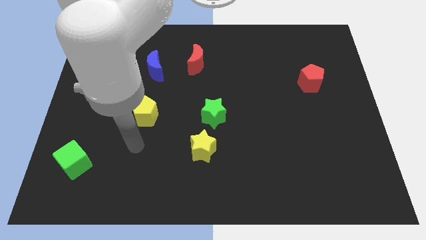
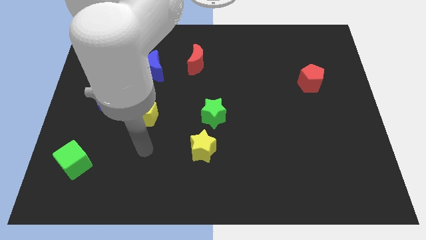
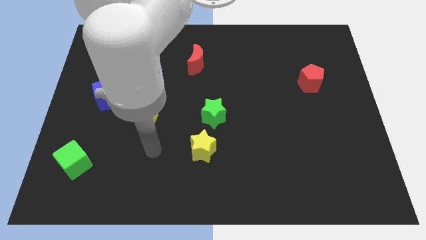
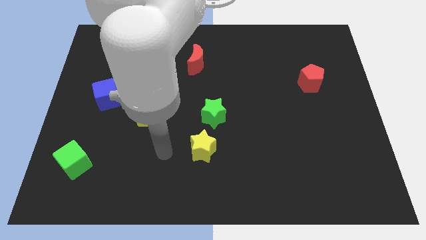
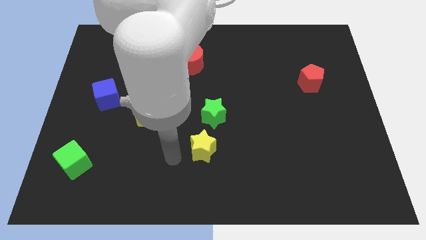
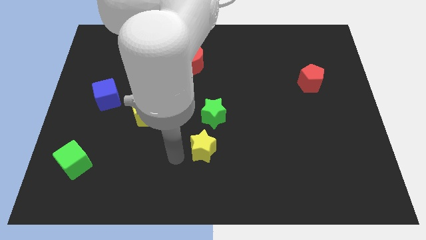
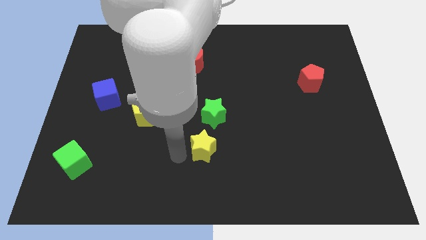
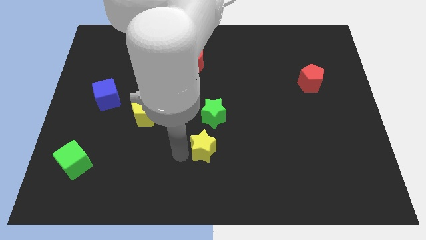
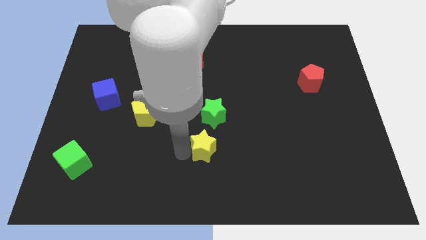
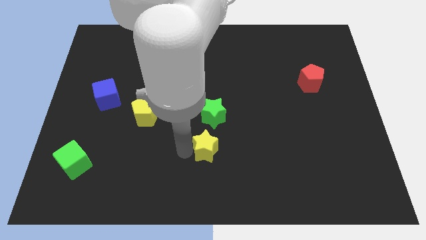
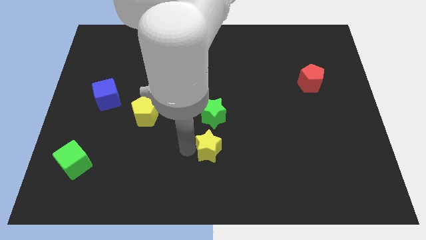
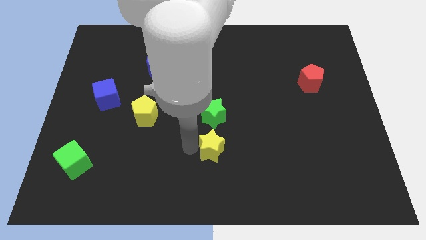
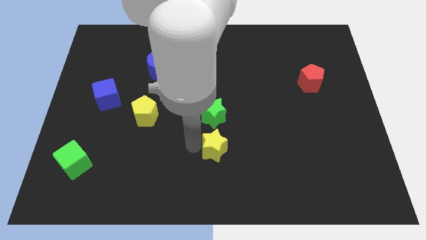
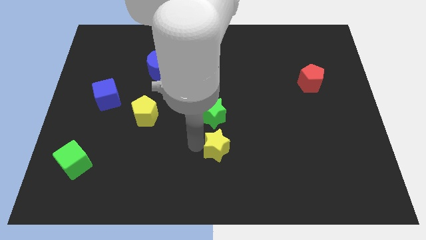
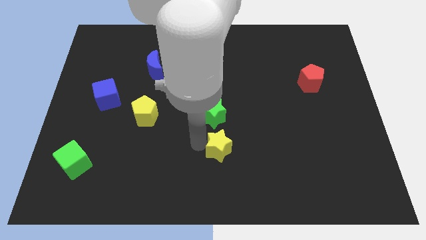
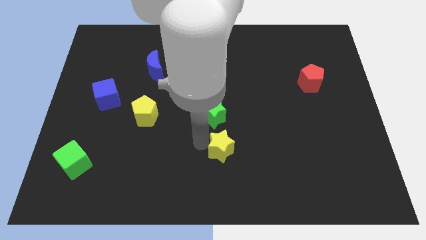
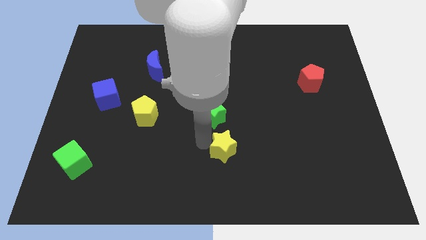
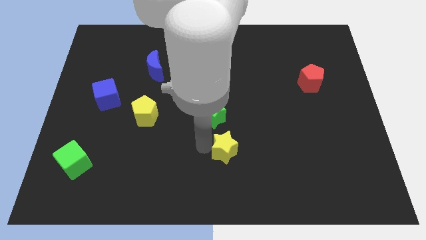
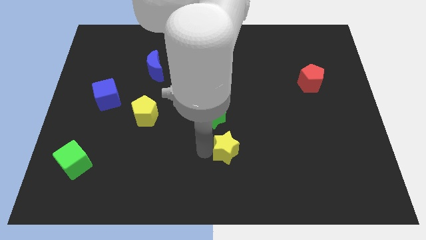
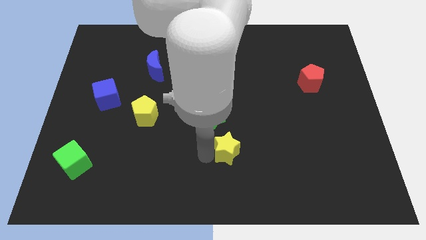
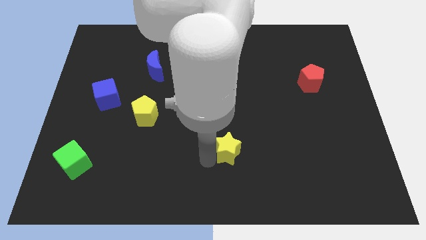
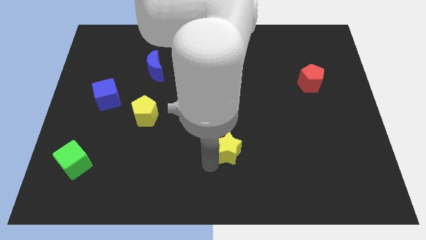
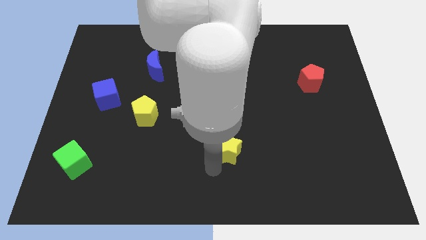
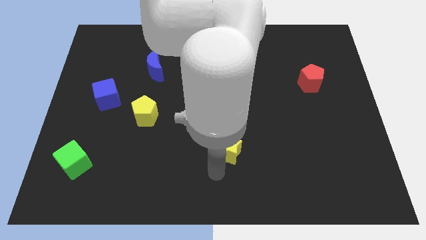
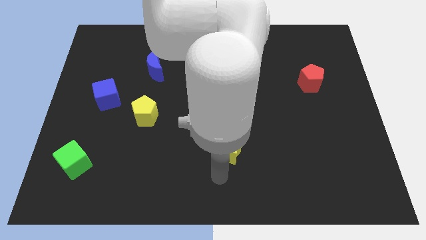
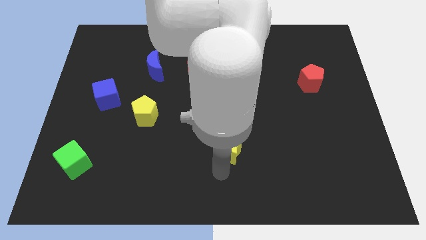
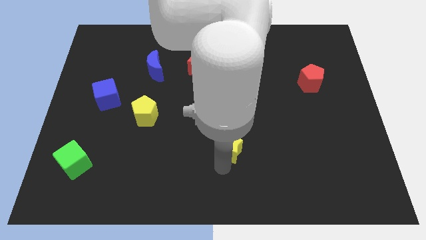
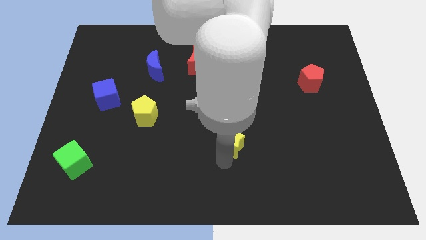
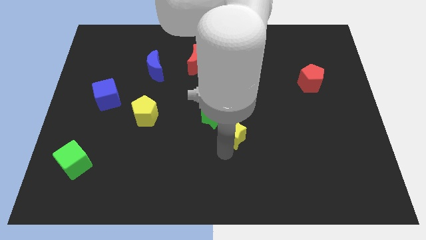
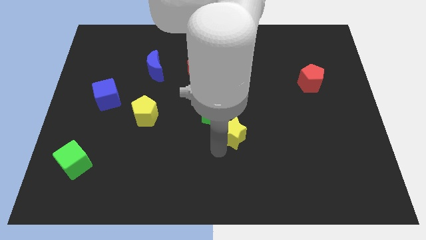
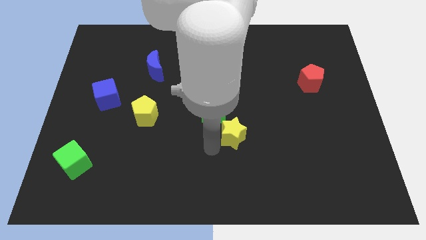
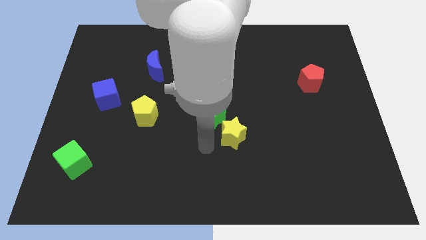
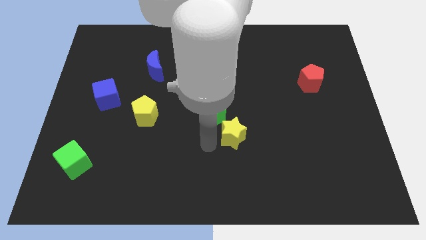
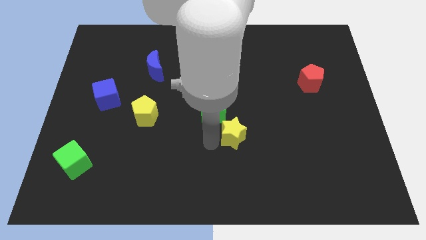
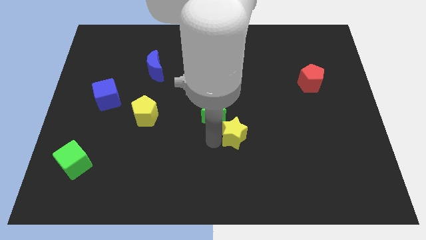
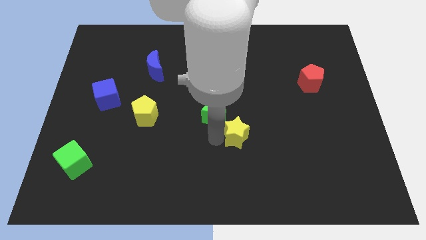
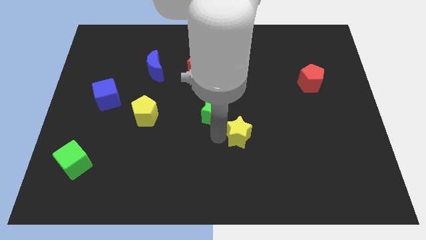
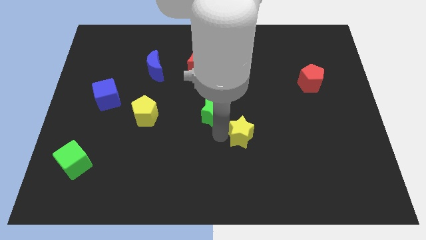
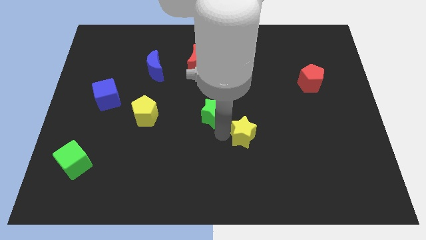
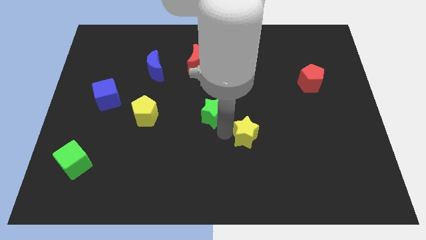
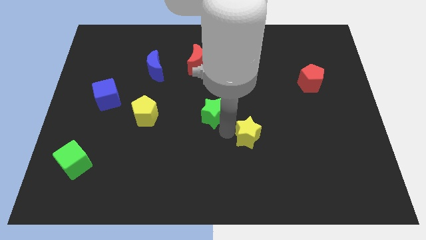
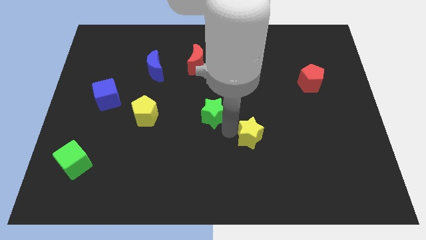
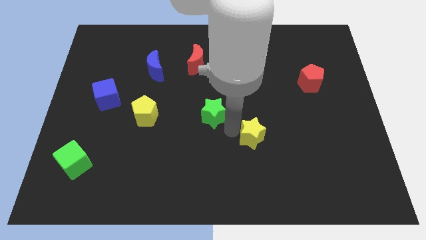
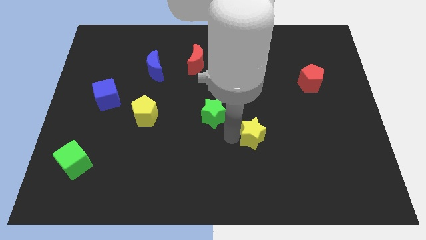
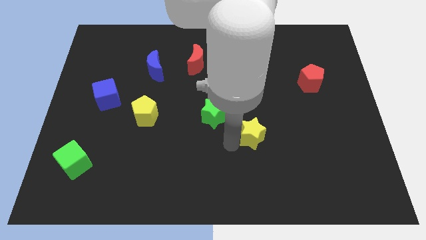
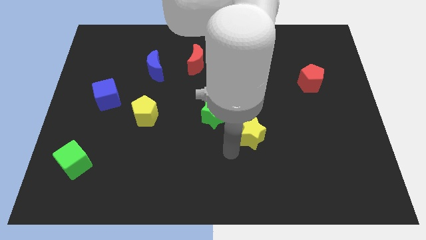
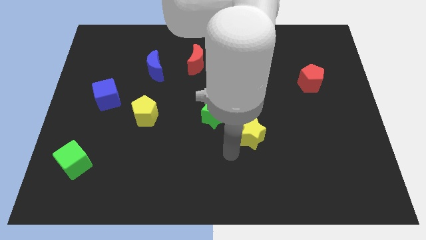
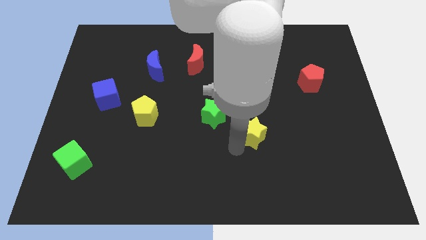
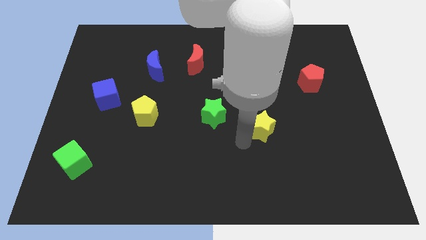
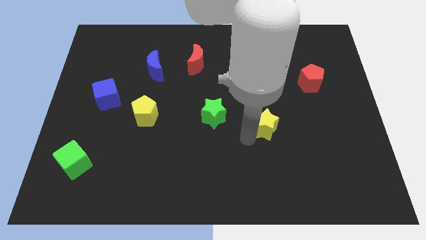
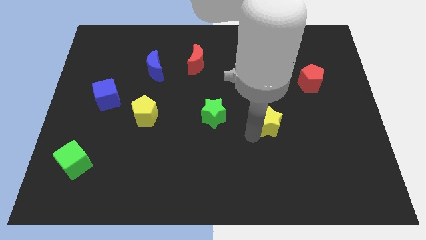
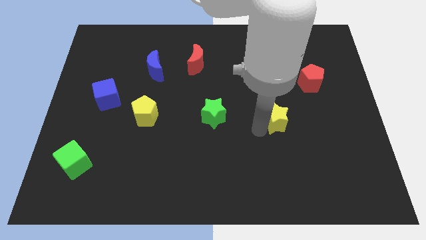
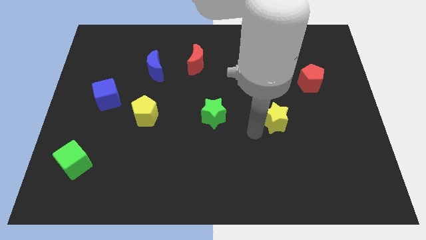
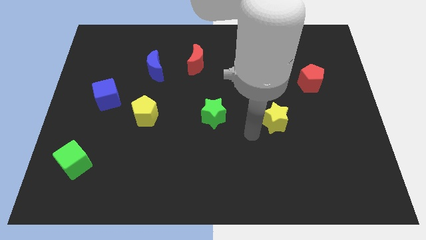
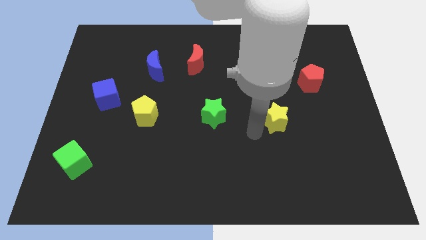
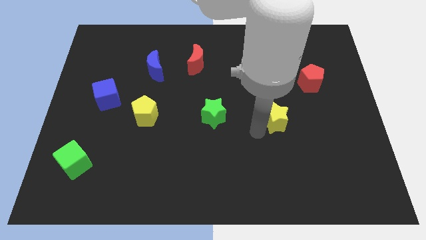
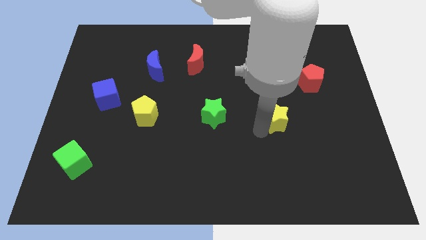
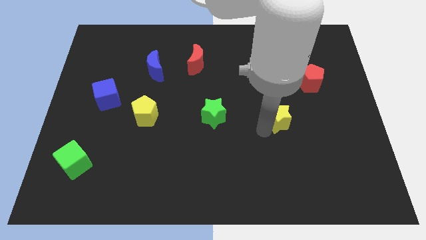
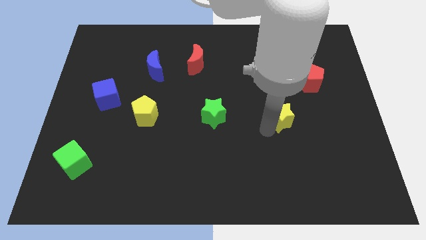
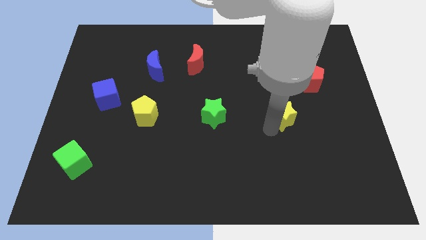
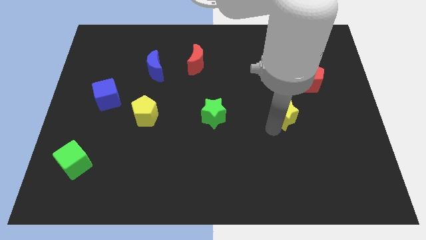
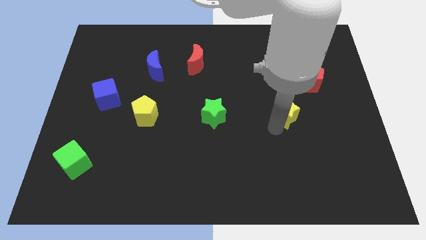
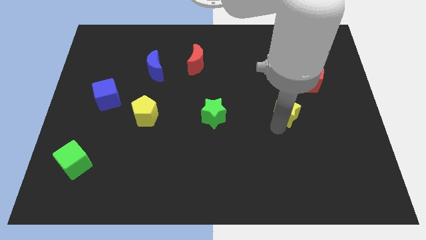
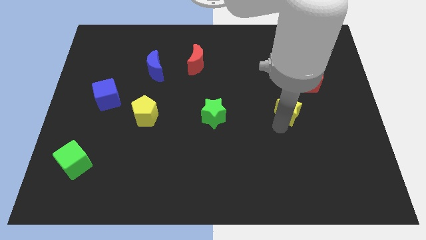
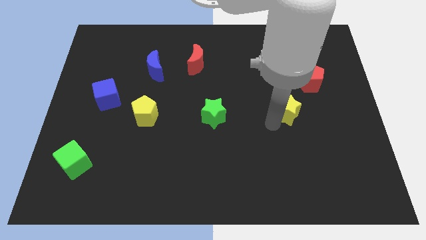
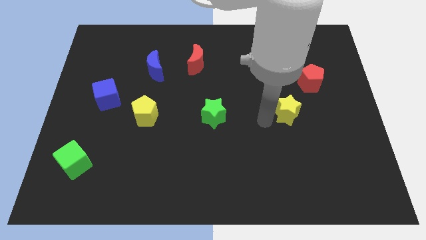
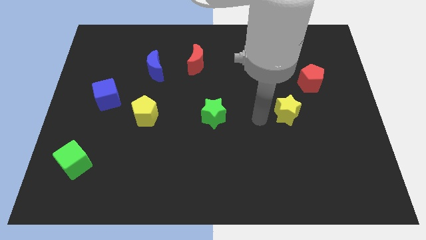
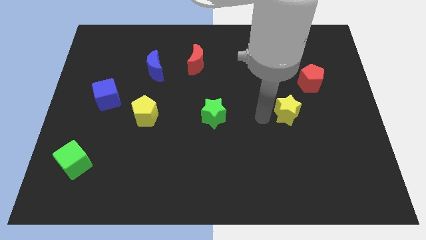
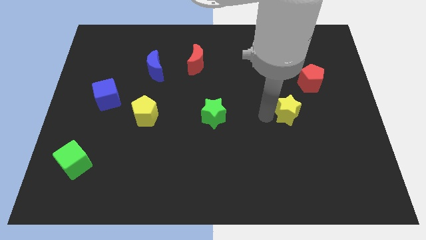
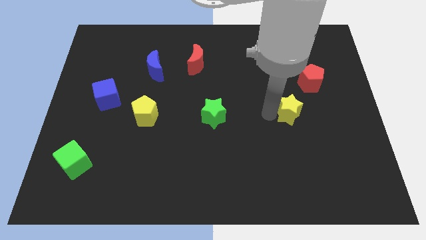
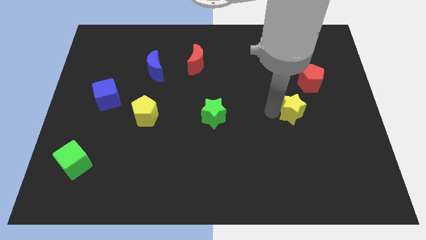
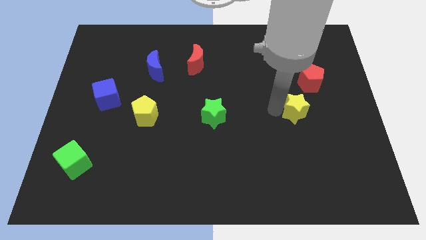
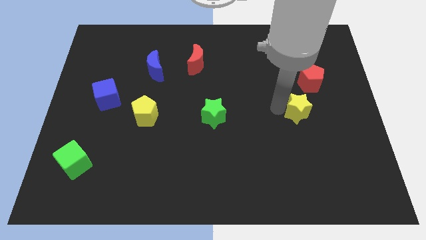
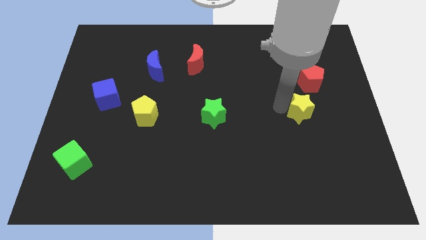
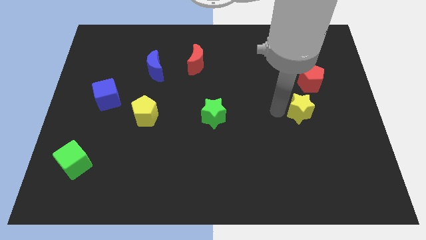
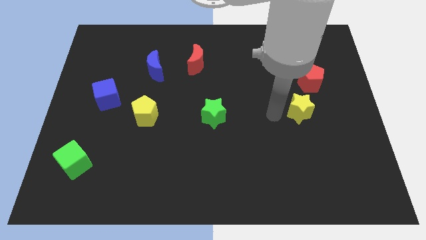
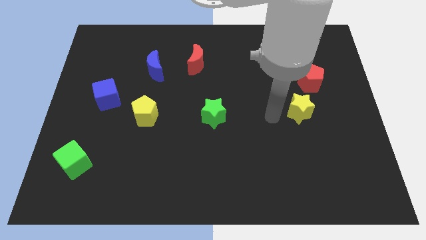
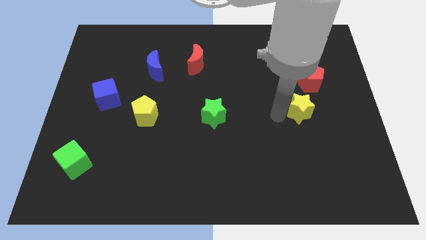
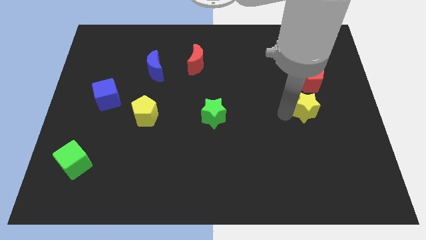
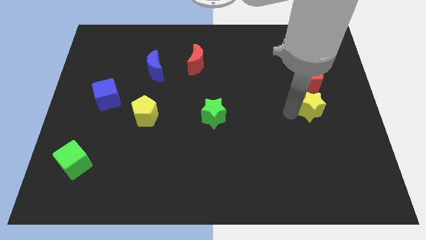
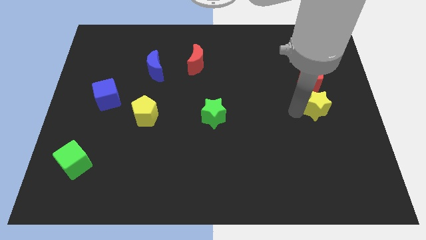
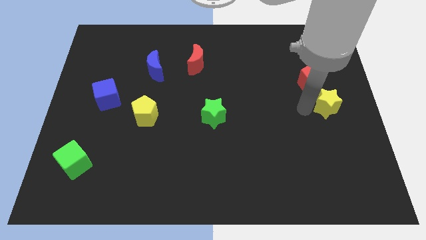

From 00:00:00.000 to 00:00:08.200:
move the yellow star to the center right
